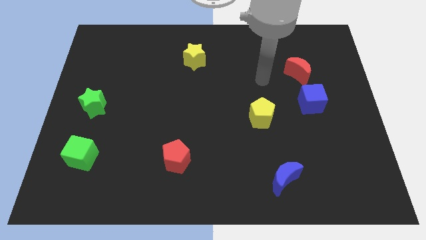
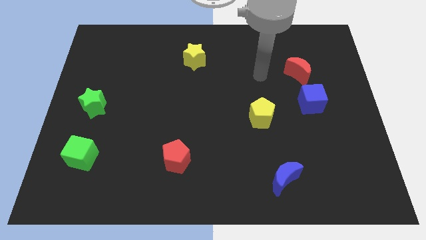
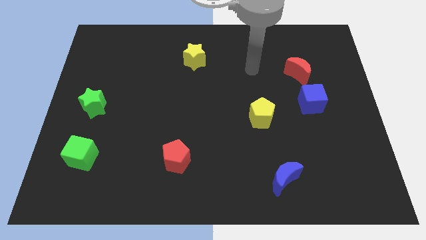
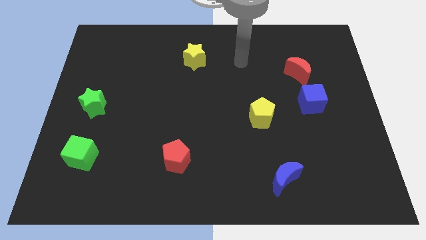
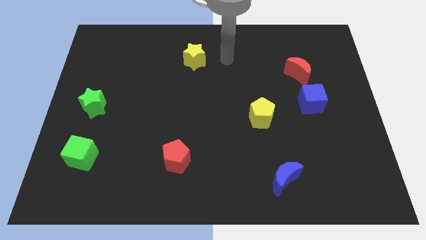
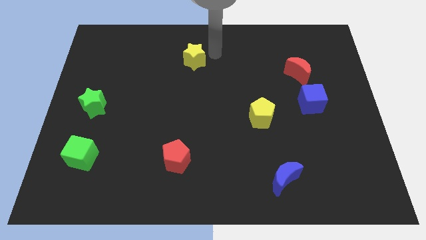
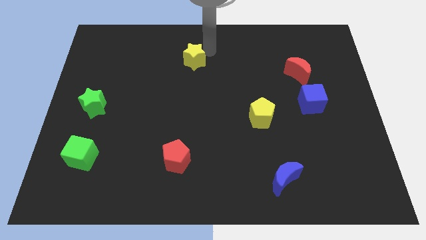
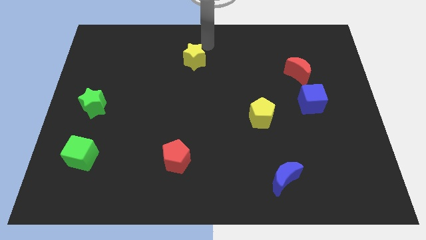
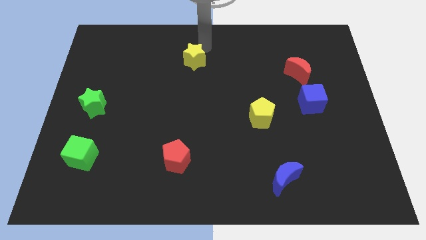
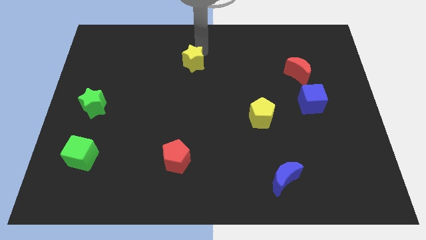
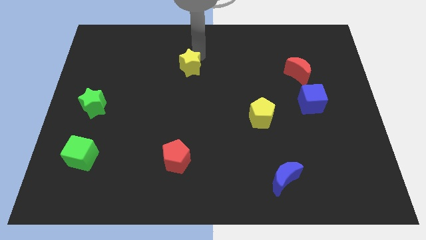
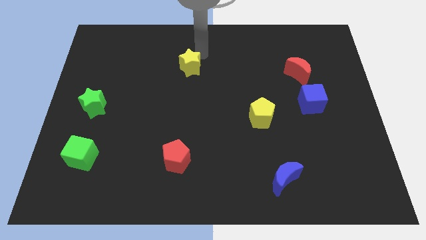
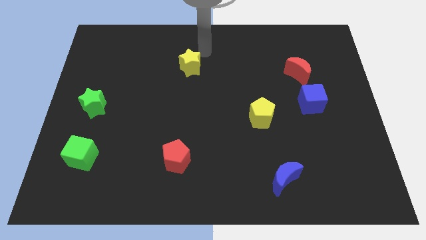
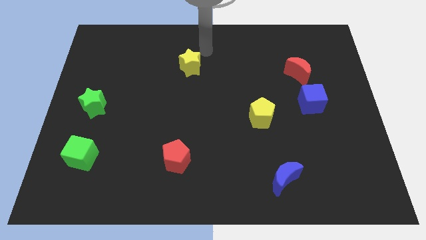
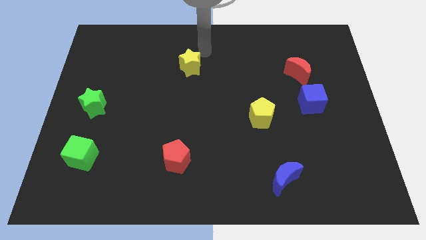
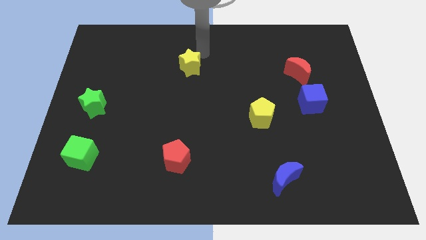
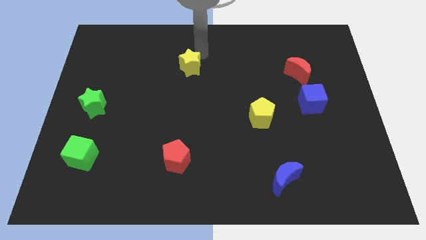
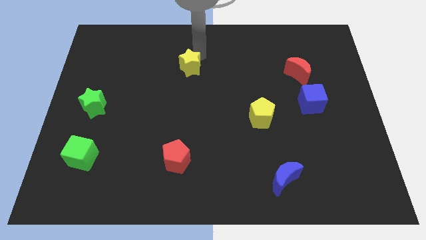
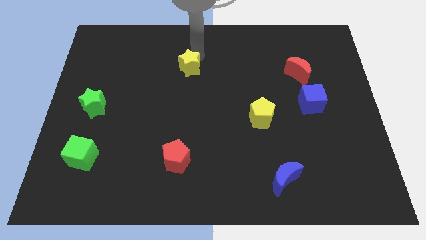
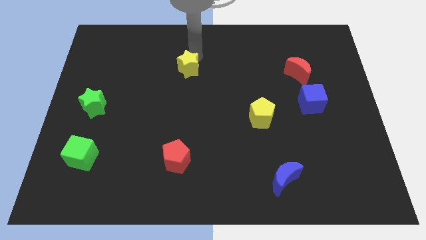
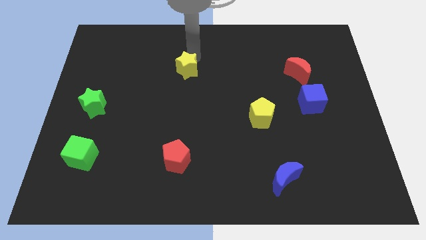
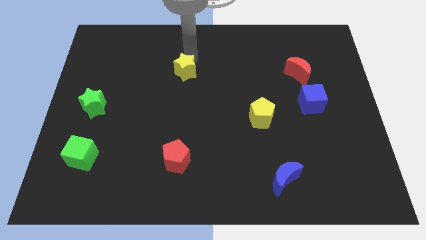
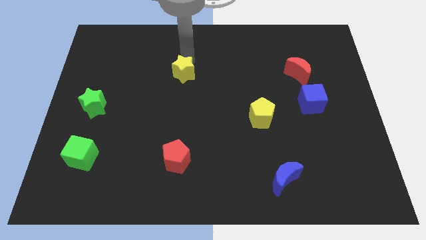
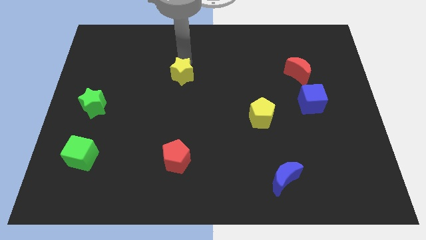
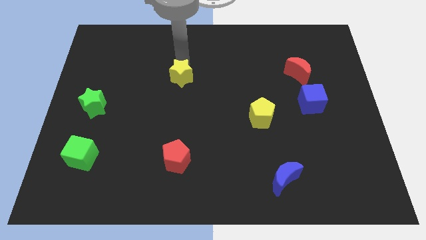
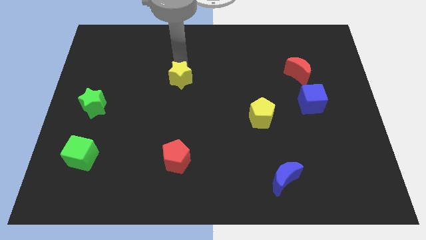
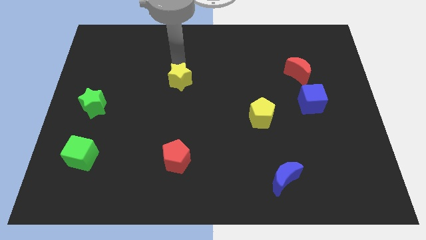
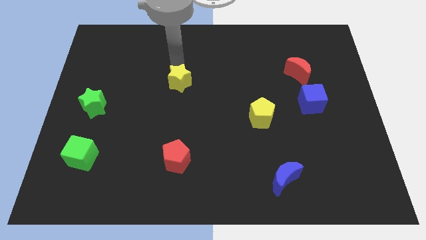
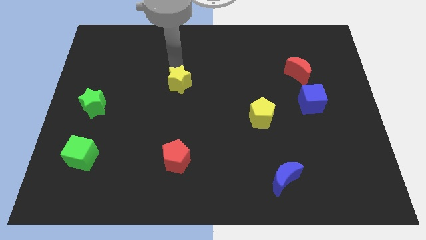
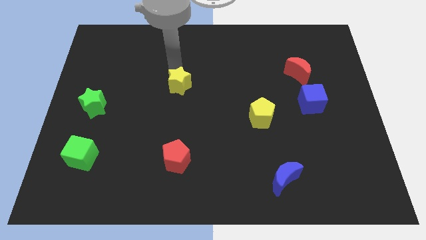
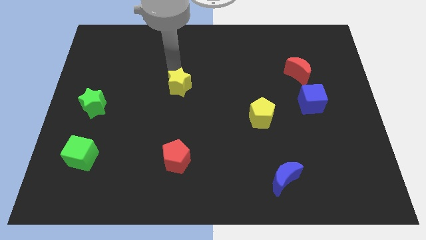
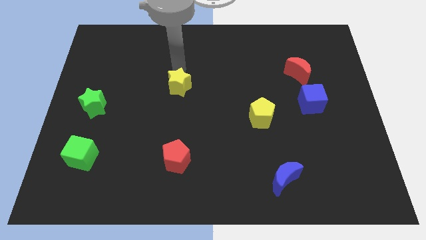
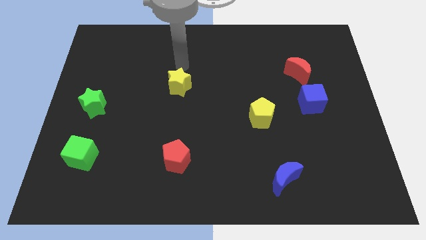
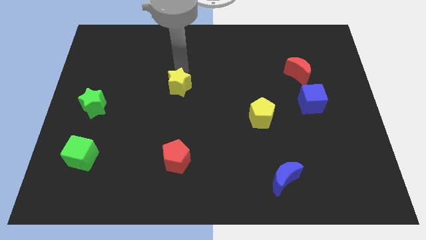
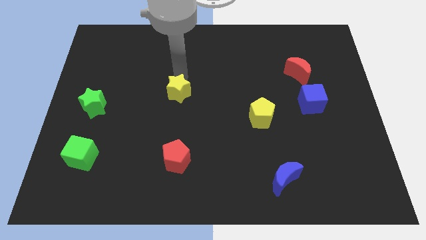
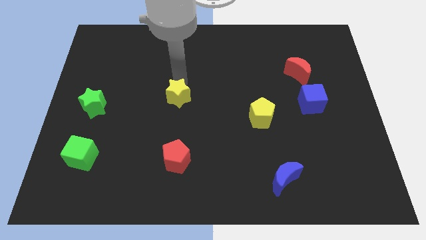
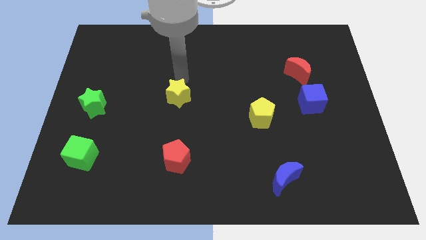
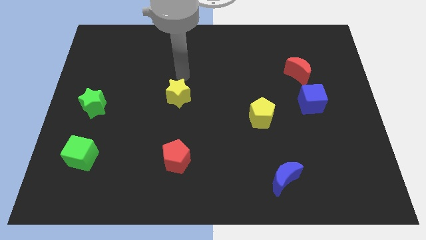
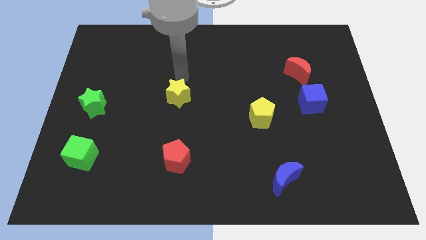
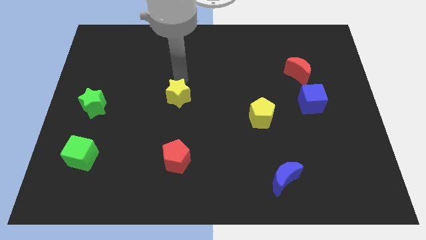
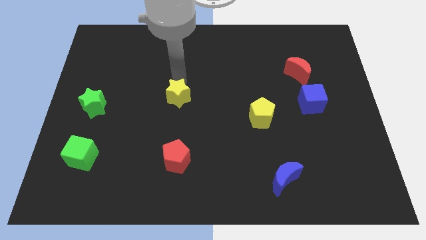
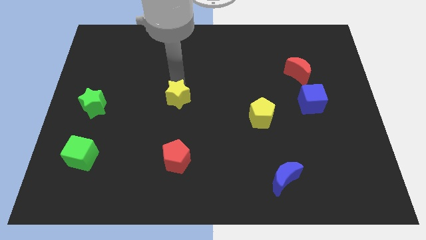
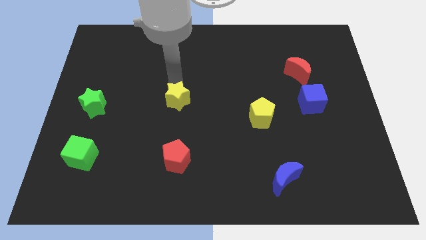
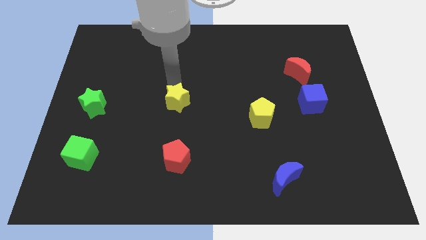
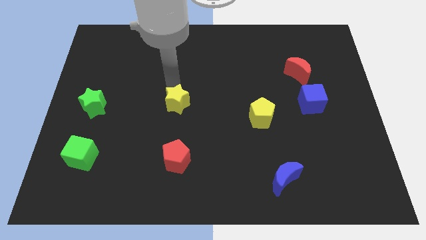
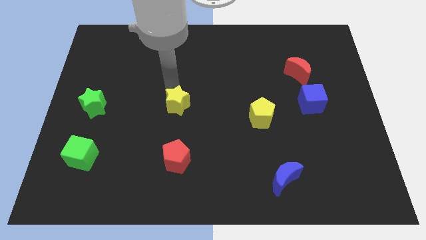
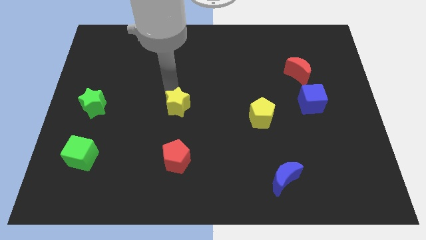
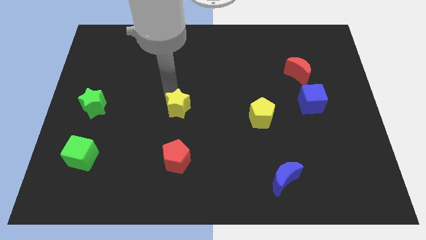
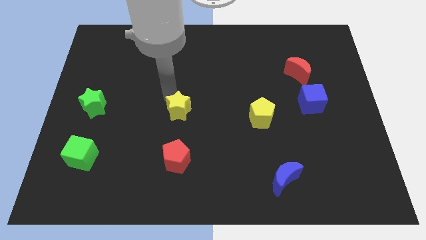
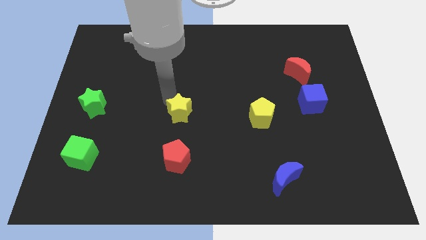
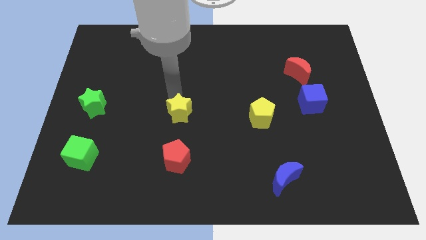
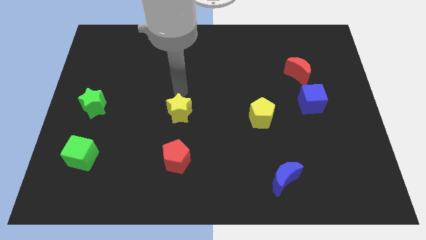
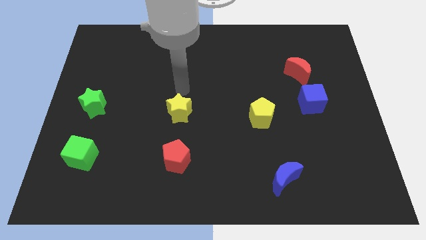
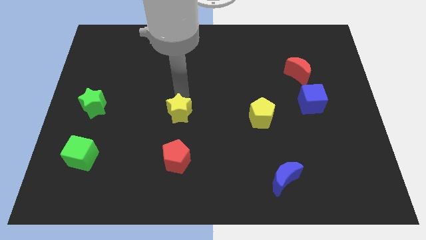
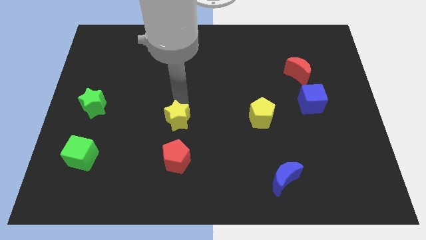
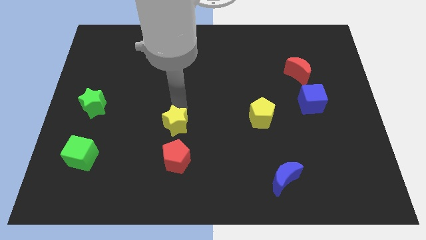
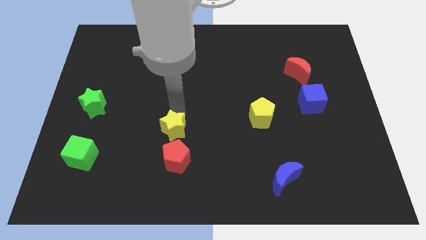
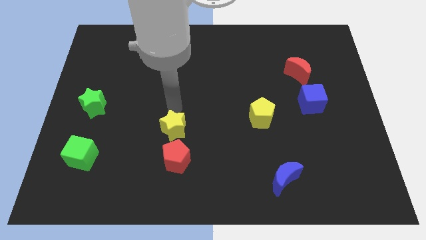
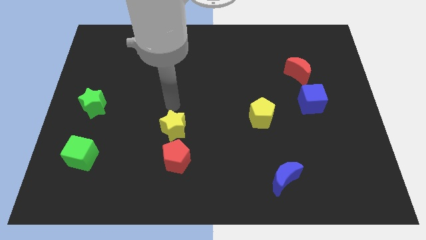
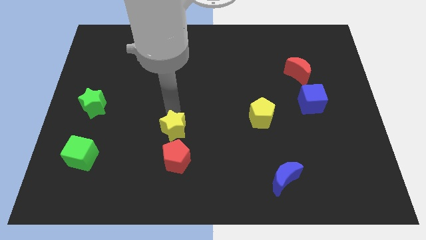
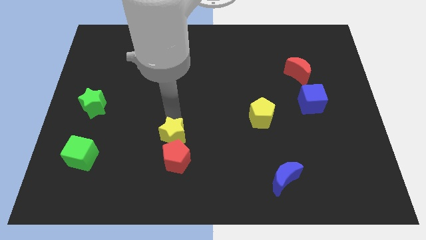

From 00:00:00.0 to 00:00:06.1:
push the yellow star close to the red pentagon

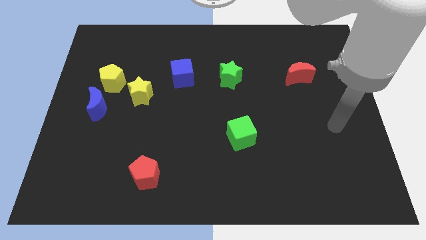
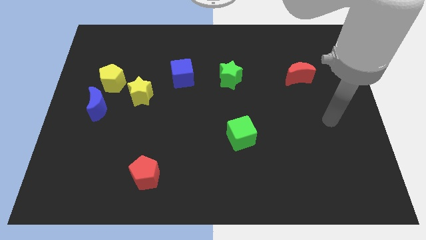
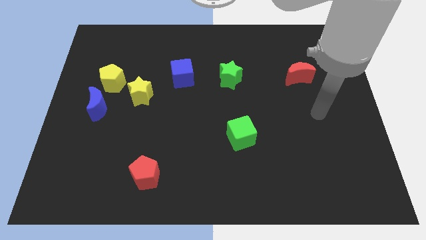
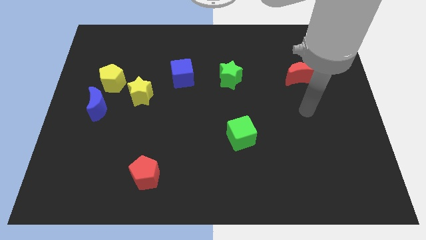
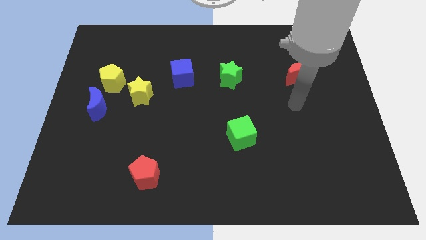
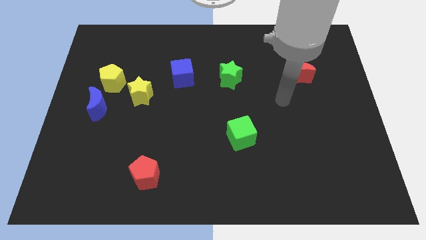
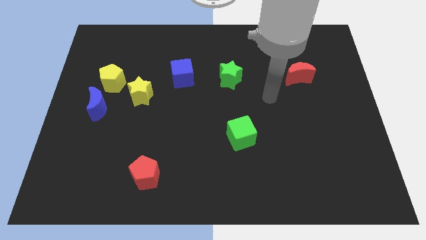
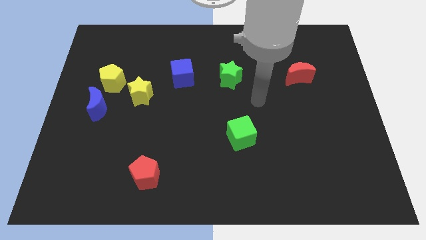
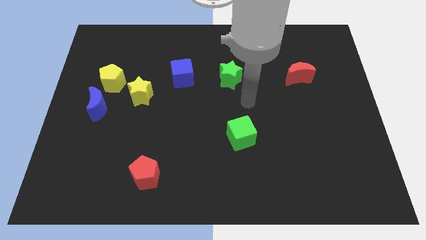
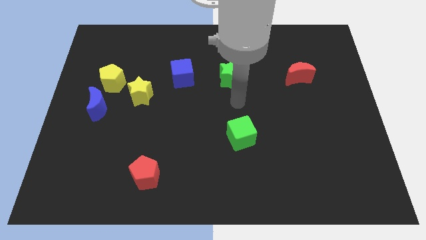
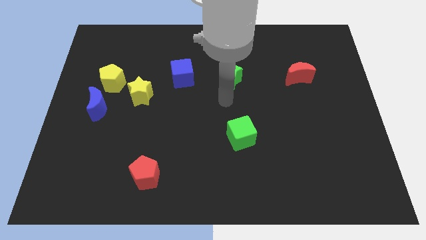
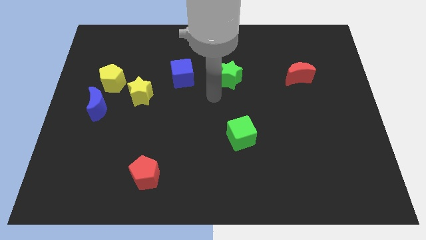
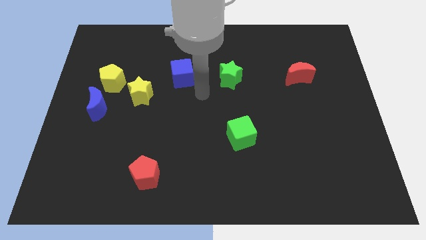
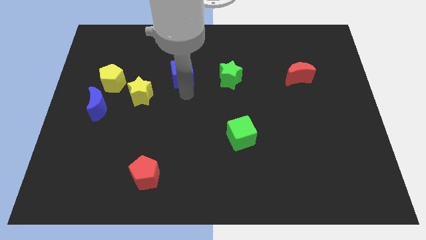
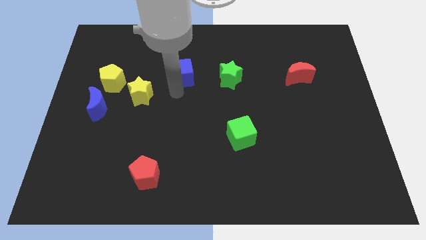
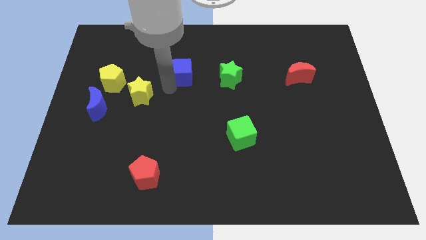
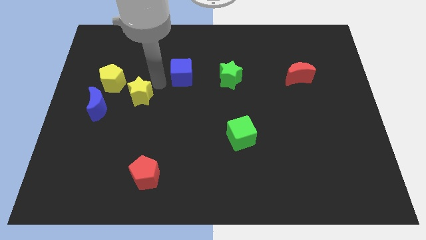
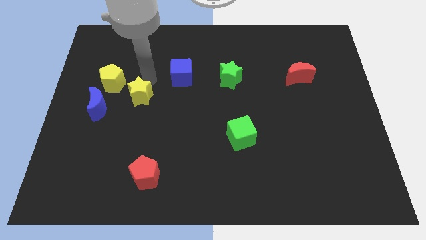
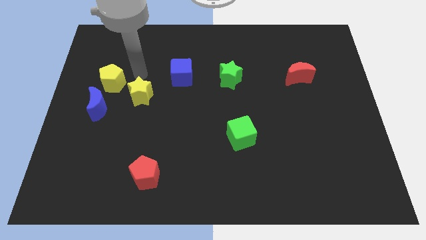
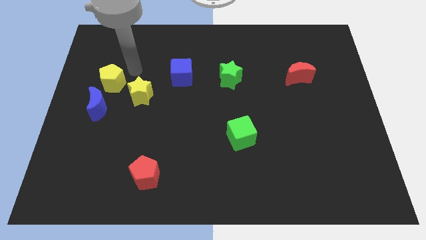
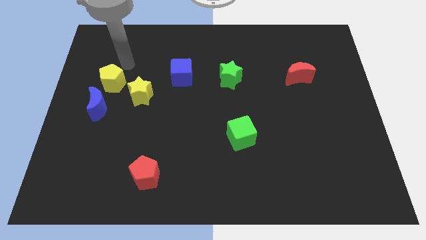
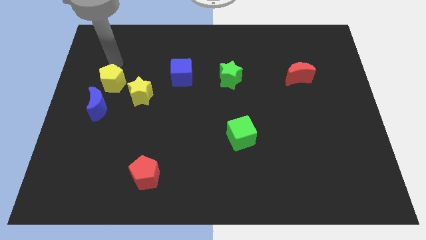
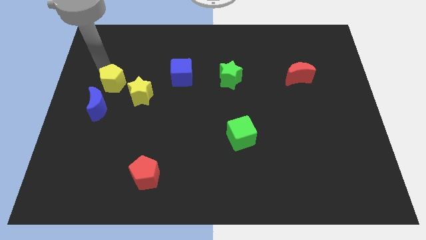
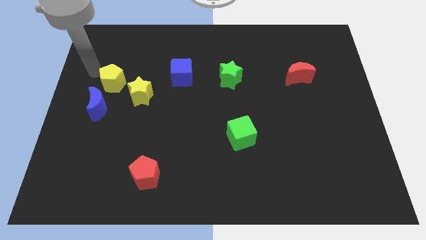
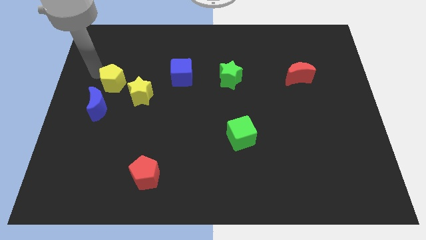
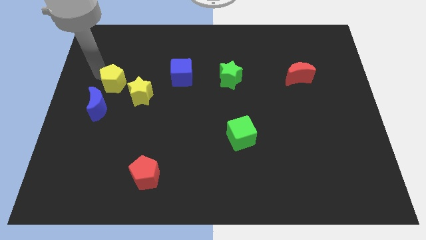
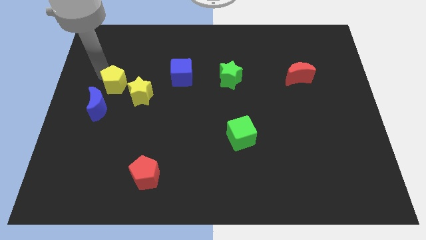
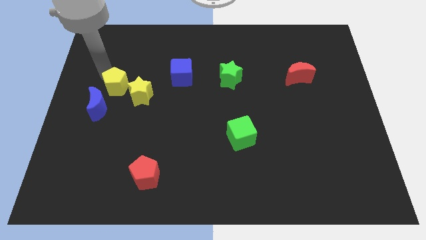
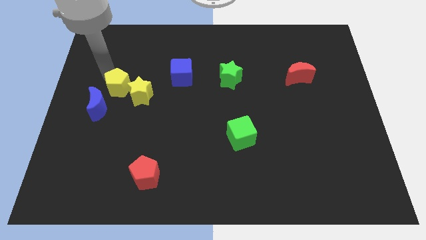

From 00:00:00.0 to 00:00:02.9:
push the yellow pentagon towards the yellow star
